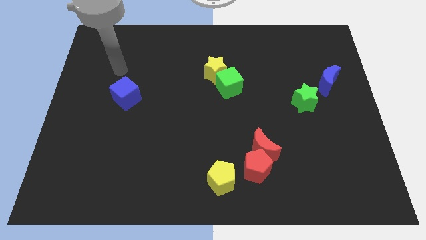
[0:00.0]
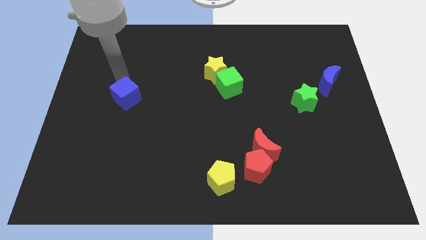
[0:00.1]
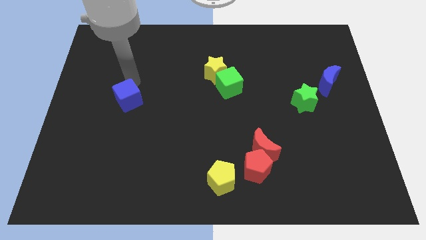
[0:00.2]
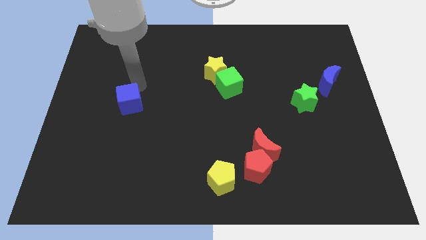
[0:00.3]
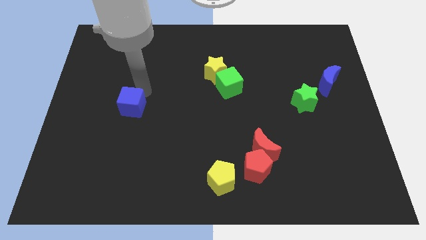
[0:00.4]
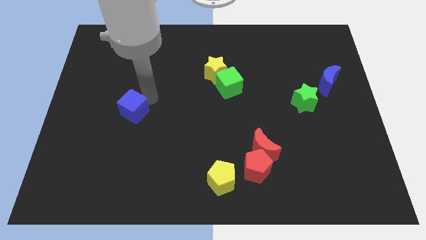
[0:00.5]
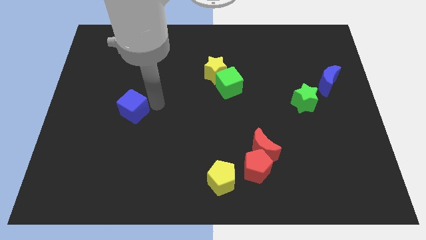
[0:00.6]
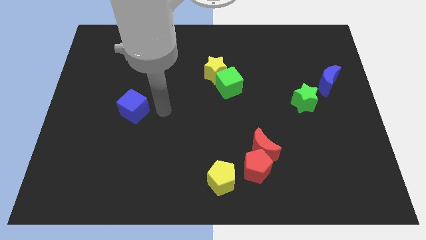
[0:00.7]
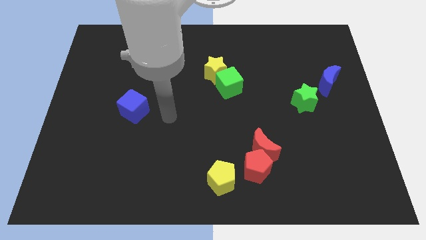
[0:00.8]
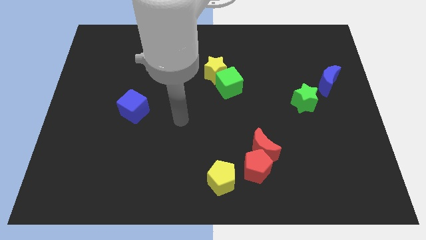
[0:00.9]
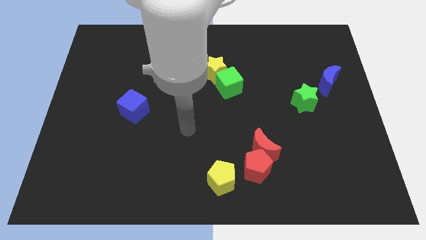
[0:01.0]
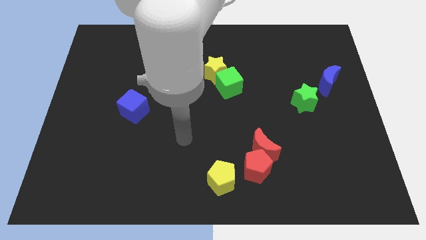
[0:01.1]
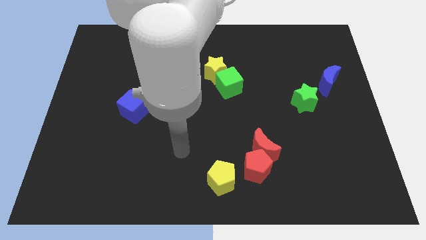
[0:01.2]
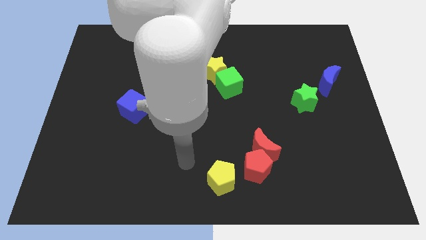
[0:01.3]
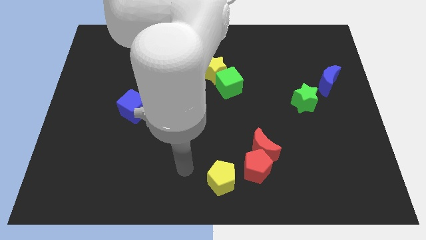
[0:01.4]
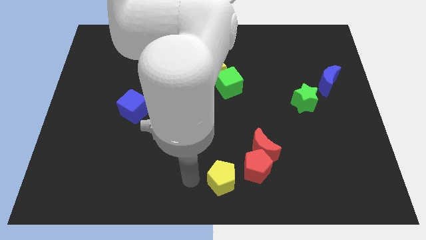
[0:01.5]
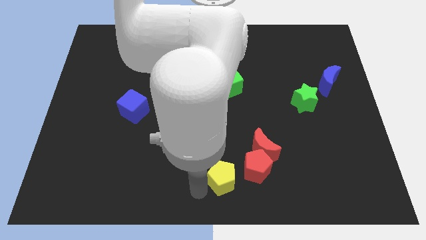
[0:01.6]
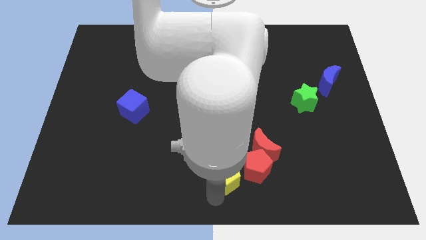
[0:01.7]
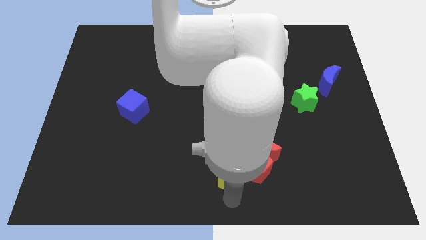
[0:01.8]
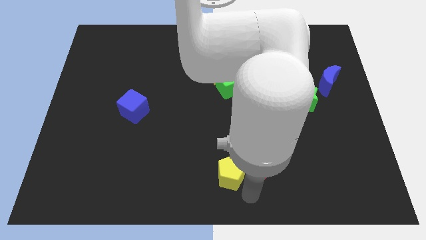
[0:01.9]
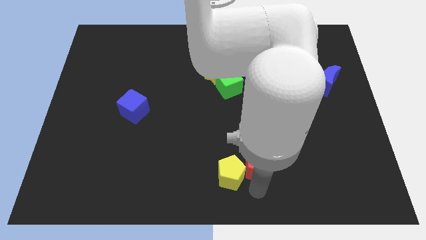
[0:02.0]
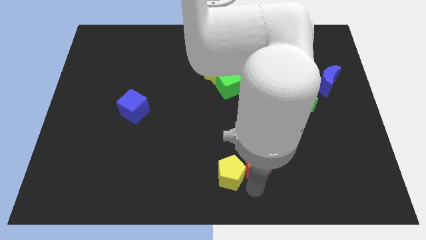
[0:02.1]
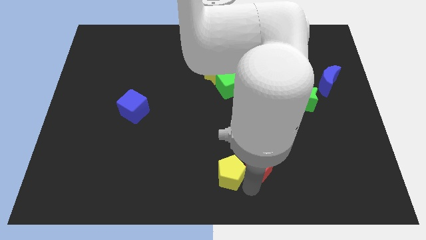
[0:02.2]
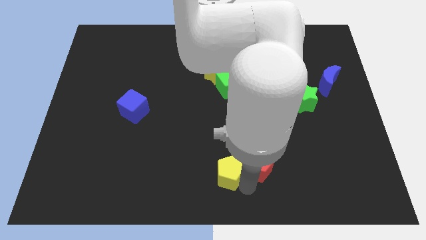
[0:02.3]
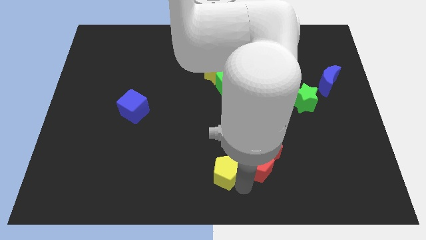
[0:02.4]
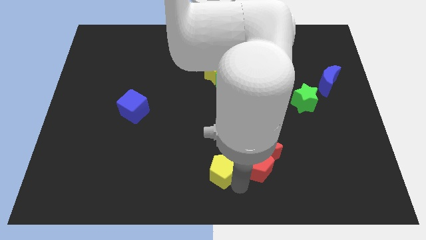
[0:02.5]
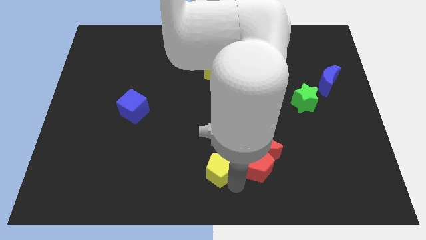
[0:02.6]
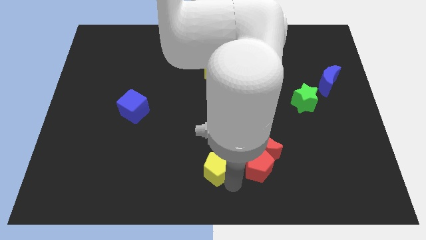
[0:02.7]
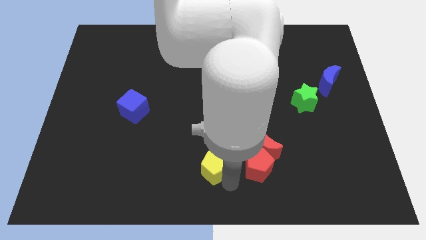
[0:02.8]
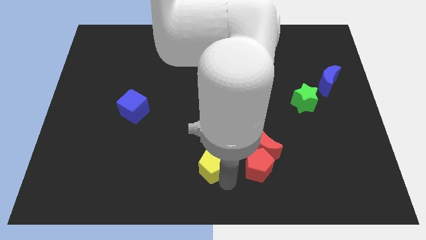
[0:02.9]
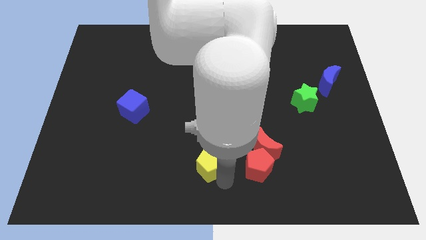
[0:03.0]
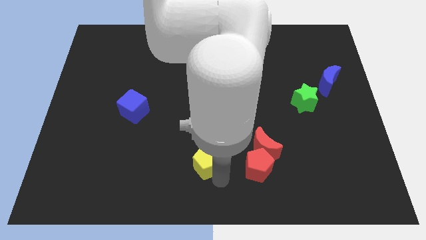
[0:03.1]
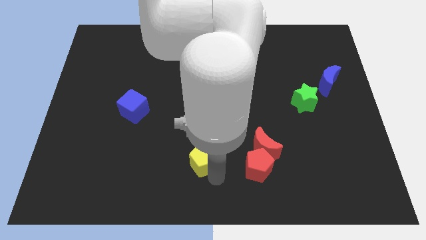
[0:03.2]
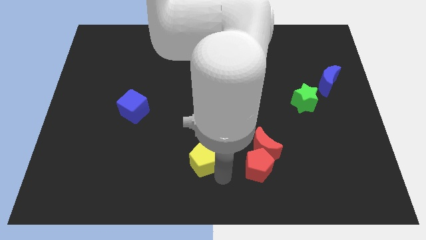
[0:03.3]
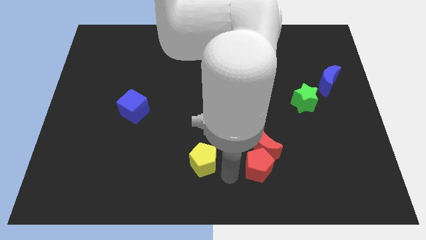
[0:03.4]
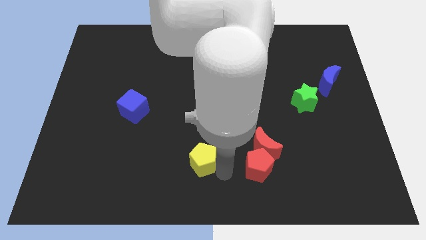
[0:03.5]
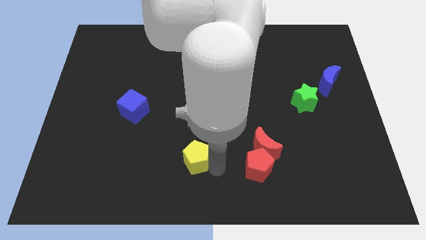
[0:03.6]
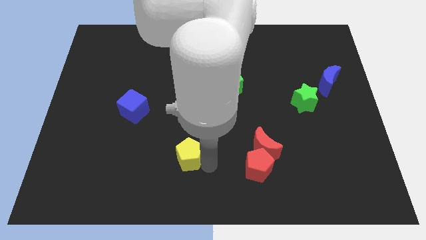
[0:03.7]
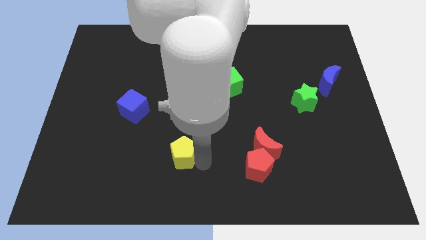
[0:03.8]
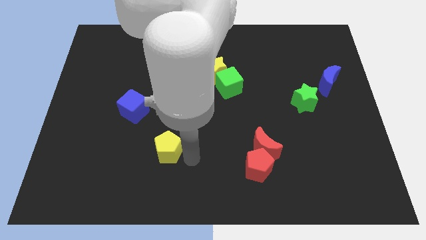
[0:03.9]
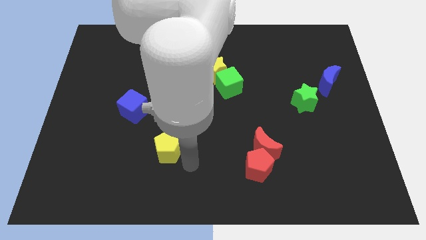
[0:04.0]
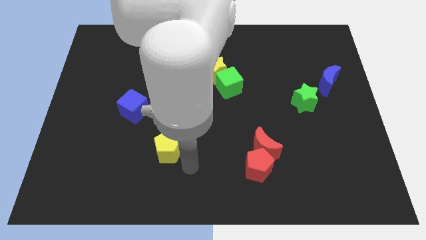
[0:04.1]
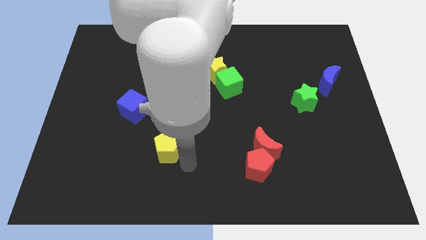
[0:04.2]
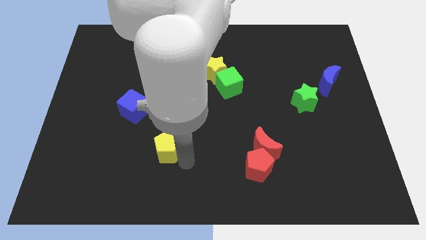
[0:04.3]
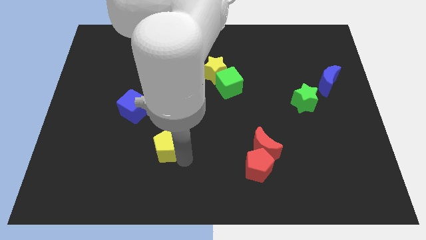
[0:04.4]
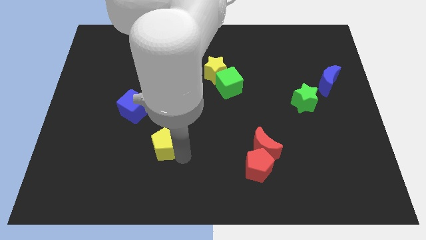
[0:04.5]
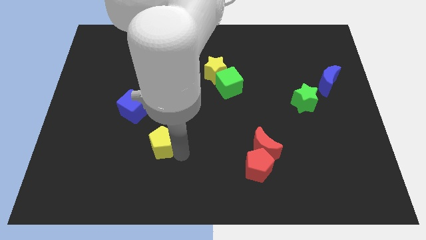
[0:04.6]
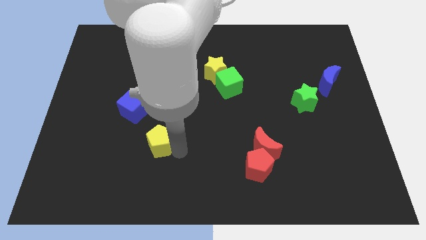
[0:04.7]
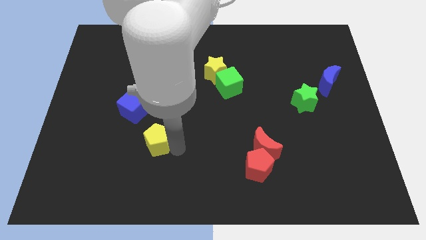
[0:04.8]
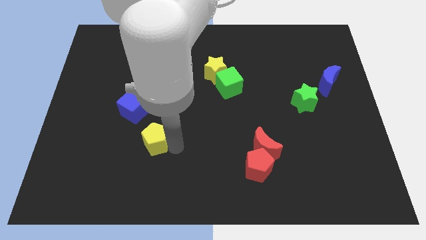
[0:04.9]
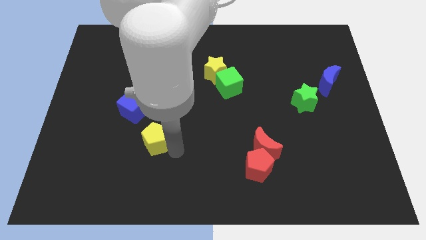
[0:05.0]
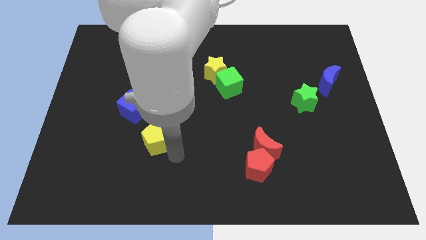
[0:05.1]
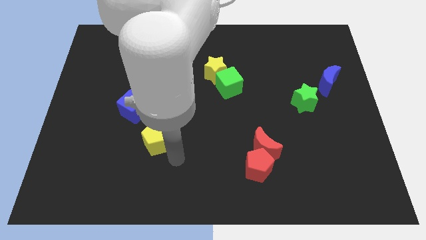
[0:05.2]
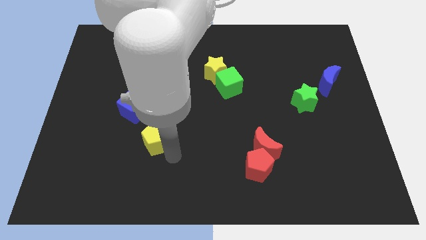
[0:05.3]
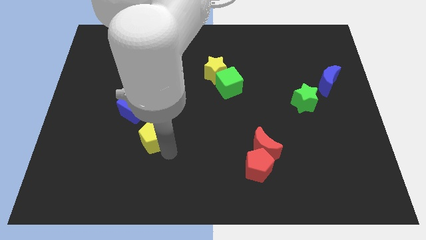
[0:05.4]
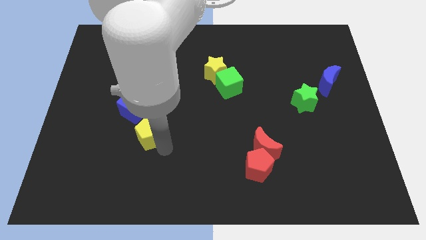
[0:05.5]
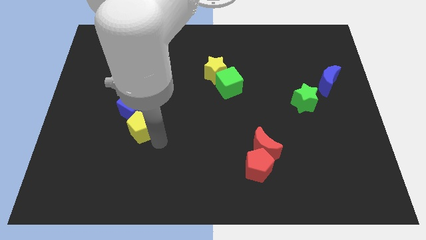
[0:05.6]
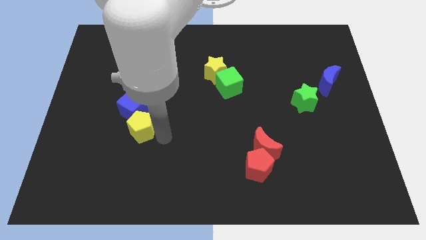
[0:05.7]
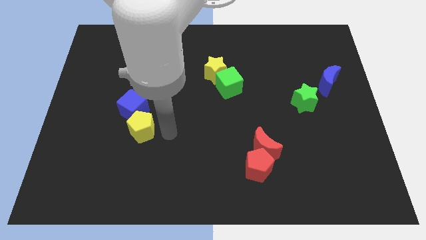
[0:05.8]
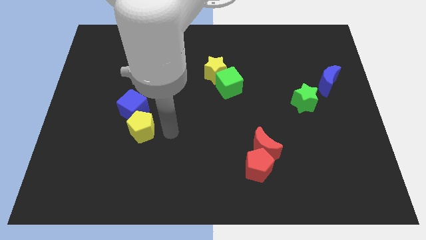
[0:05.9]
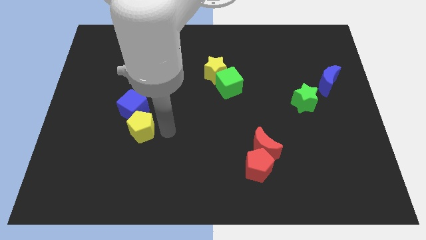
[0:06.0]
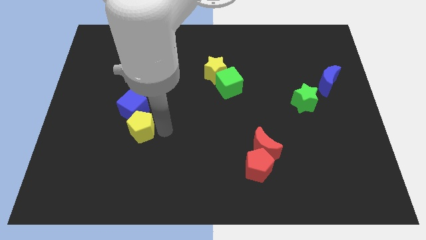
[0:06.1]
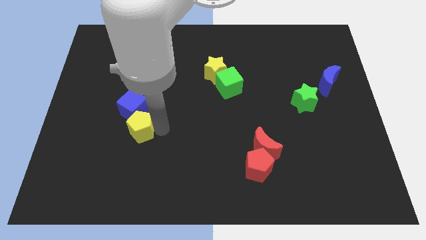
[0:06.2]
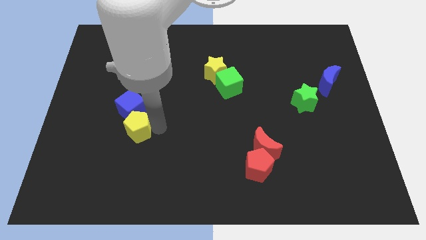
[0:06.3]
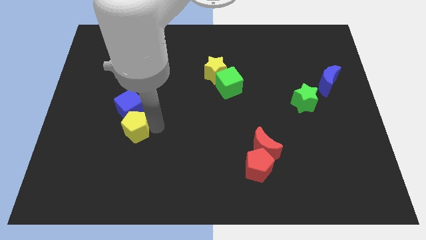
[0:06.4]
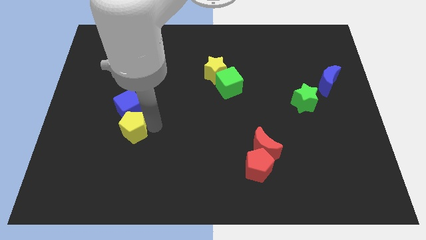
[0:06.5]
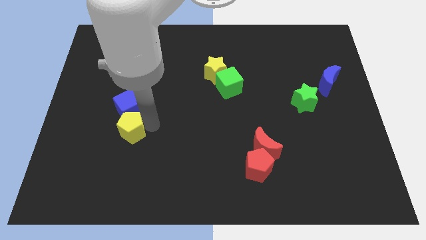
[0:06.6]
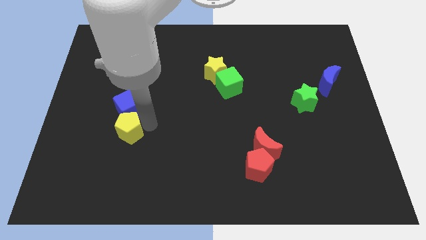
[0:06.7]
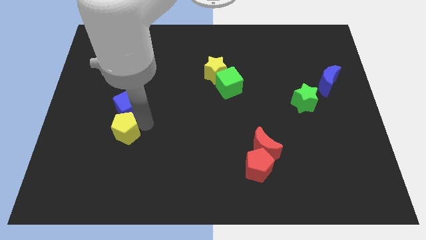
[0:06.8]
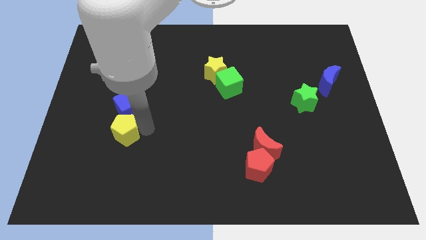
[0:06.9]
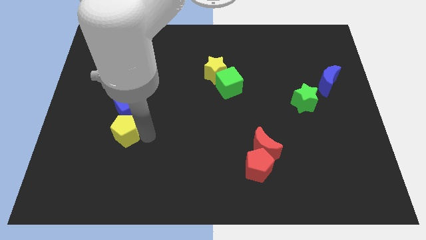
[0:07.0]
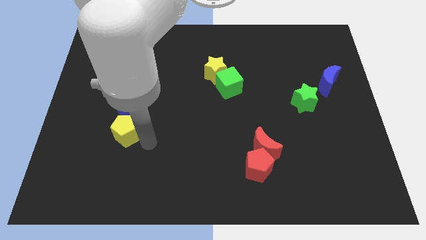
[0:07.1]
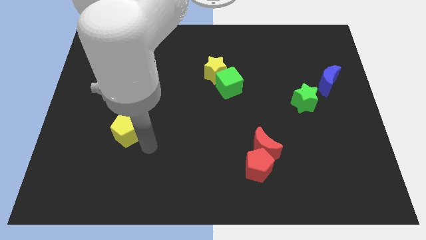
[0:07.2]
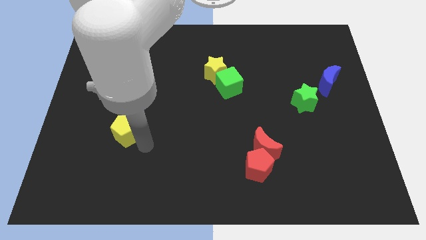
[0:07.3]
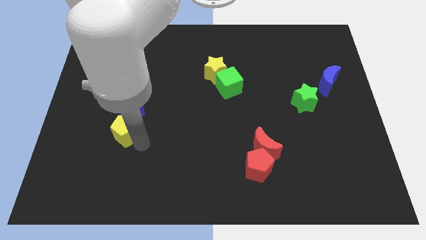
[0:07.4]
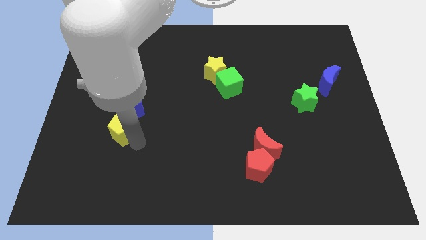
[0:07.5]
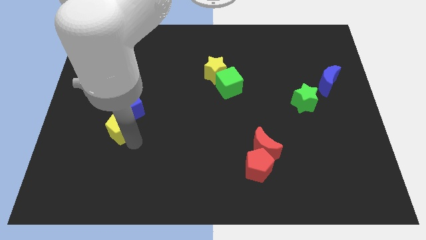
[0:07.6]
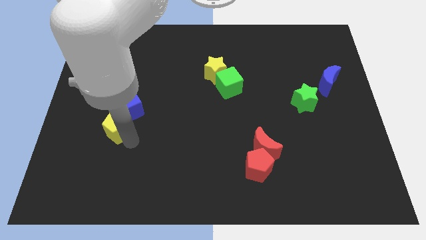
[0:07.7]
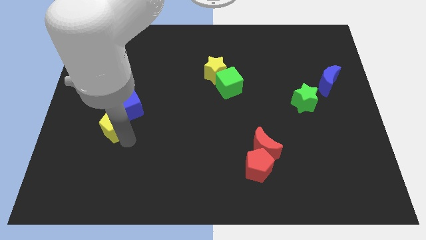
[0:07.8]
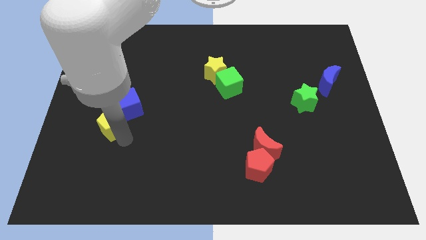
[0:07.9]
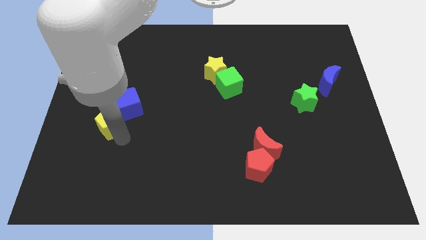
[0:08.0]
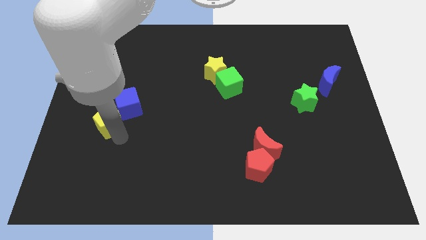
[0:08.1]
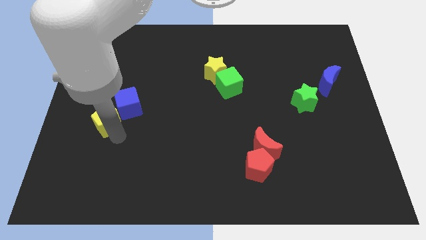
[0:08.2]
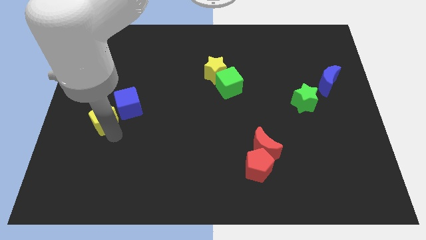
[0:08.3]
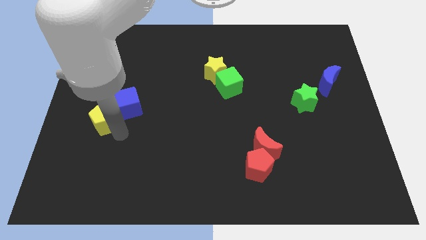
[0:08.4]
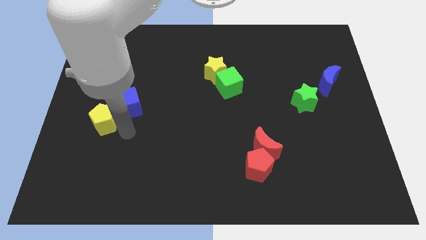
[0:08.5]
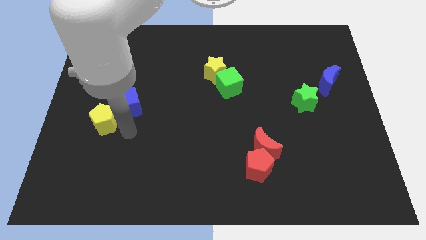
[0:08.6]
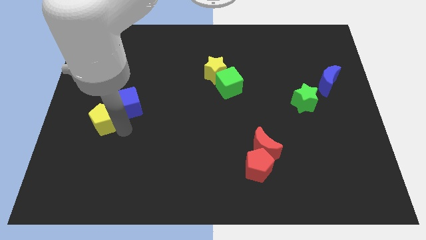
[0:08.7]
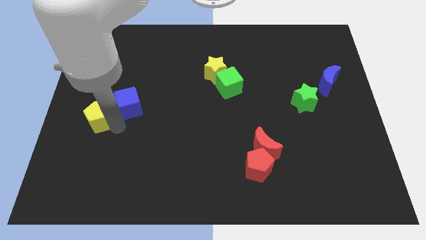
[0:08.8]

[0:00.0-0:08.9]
slide the yellow pentagon to the left side of the board
